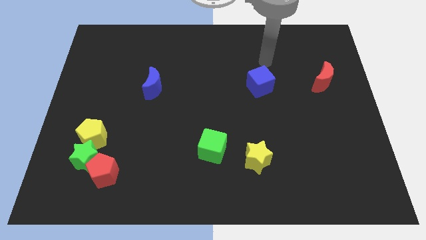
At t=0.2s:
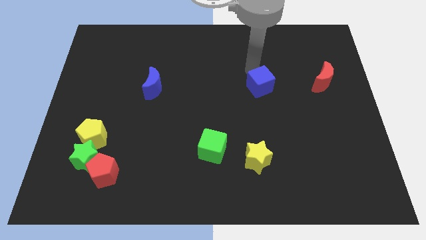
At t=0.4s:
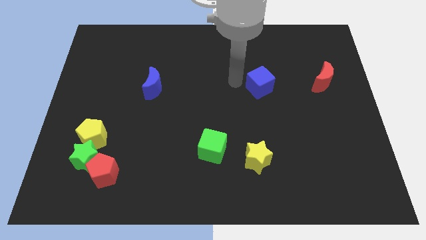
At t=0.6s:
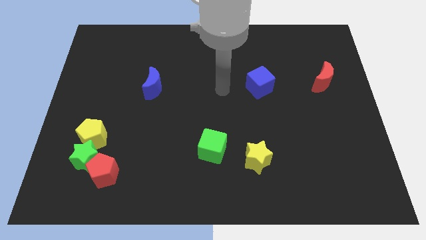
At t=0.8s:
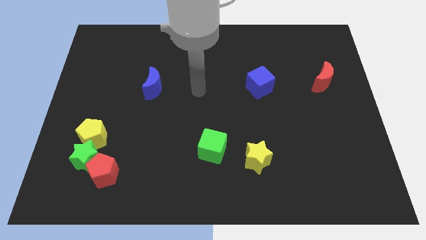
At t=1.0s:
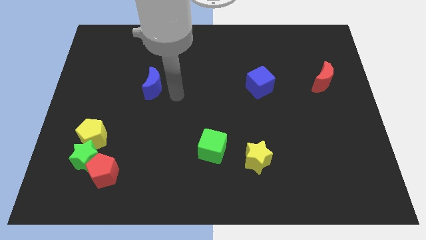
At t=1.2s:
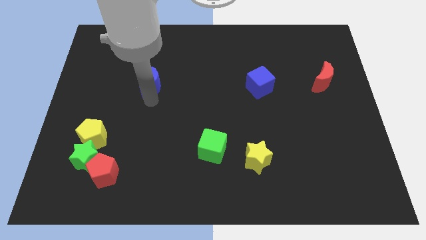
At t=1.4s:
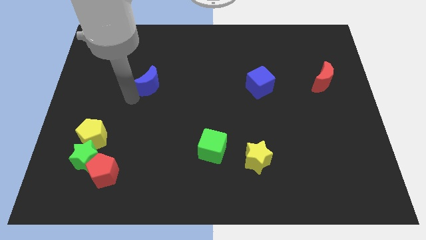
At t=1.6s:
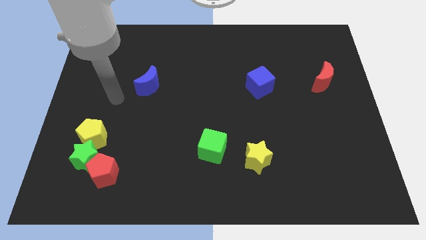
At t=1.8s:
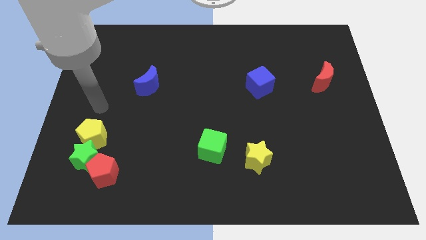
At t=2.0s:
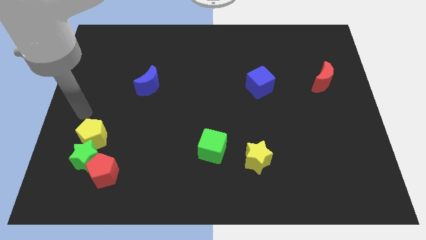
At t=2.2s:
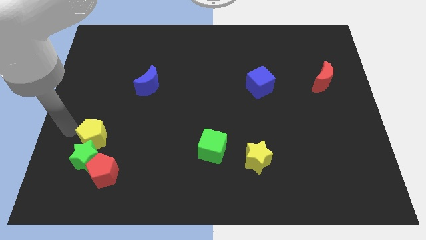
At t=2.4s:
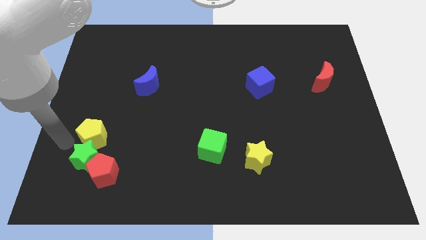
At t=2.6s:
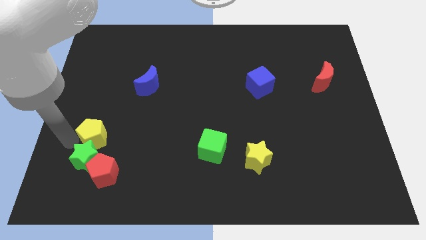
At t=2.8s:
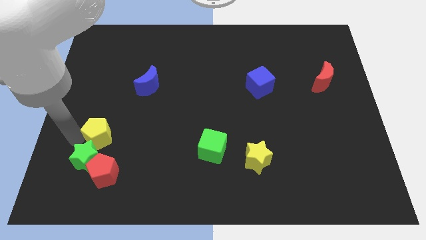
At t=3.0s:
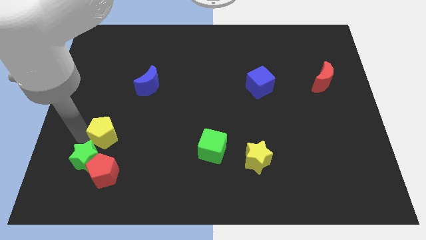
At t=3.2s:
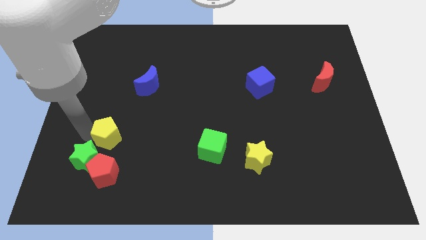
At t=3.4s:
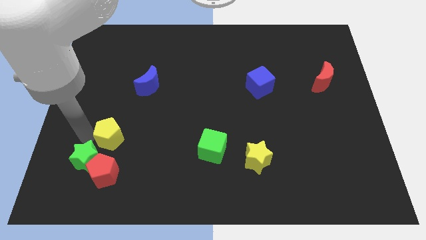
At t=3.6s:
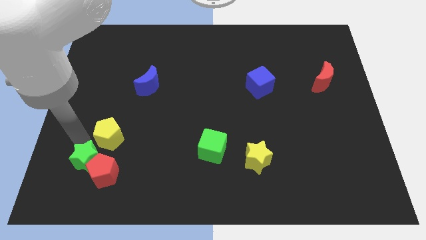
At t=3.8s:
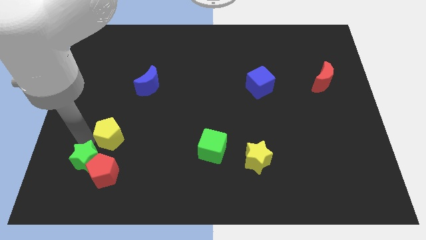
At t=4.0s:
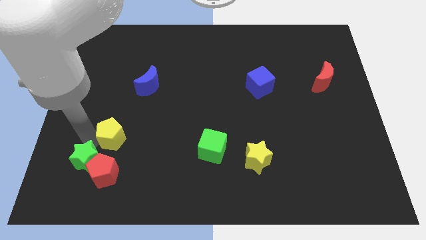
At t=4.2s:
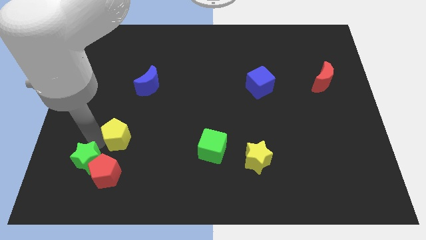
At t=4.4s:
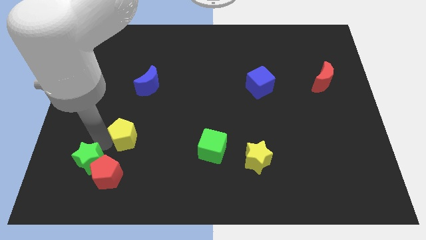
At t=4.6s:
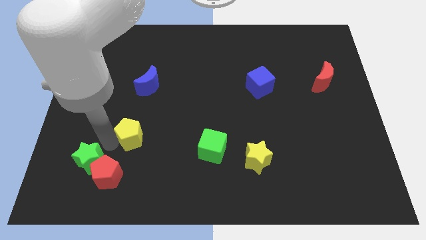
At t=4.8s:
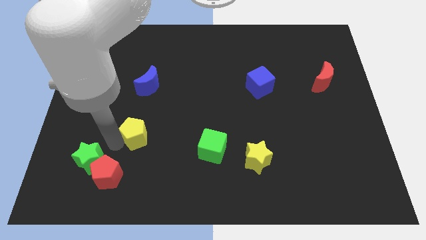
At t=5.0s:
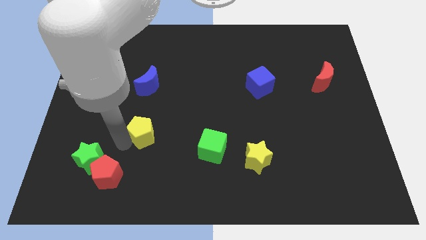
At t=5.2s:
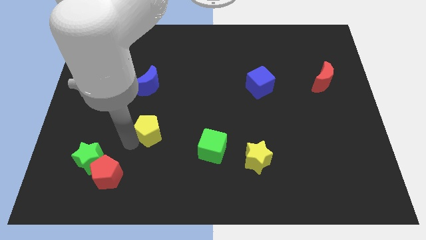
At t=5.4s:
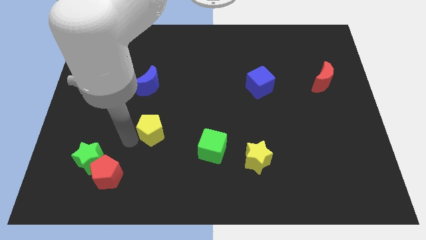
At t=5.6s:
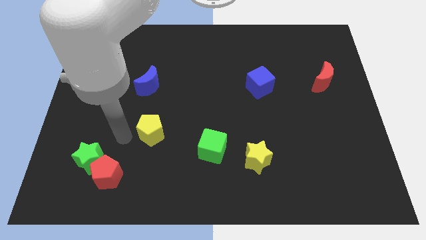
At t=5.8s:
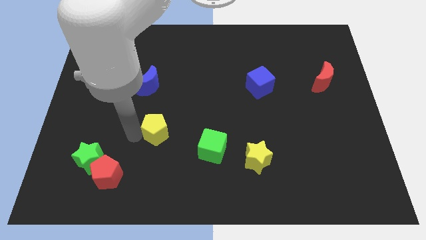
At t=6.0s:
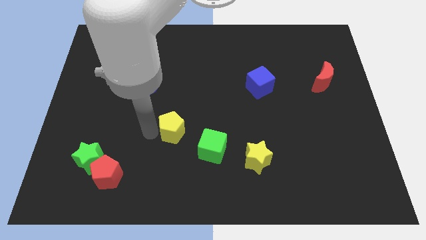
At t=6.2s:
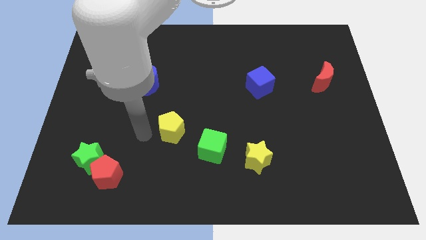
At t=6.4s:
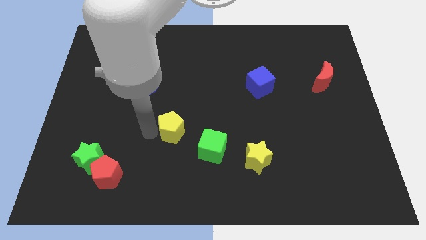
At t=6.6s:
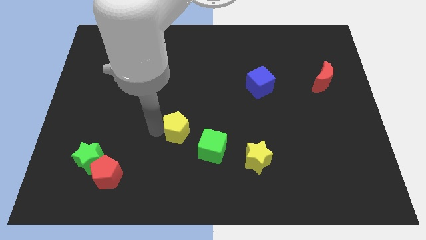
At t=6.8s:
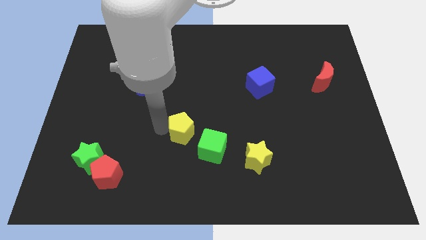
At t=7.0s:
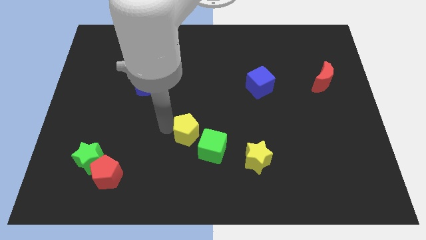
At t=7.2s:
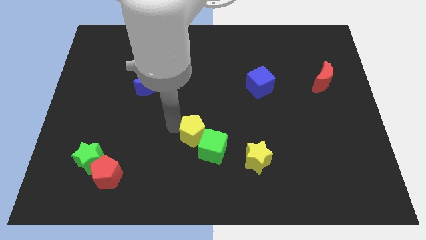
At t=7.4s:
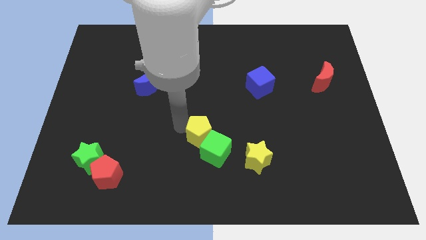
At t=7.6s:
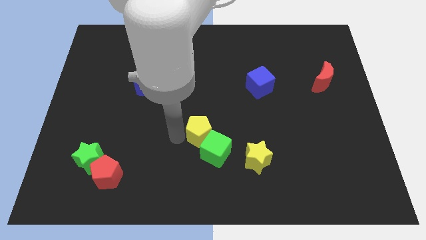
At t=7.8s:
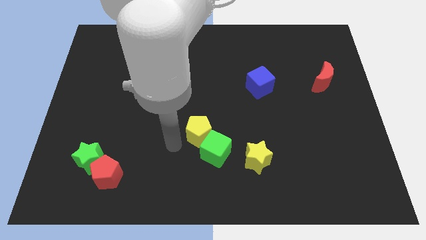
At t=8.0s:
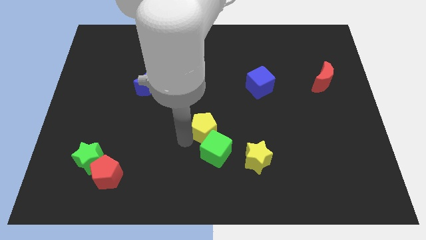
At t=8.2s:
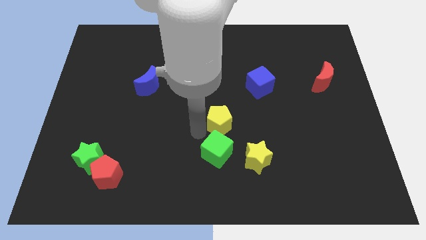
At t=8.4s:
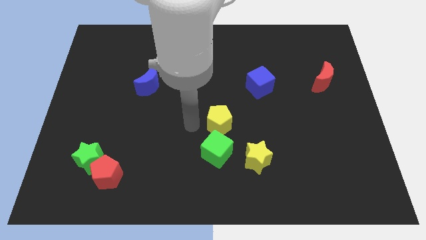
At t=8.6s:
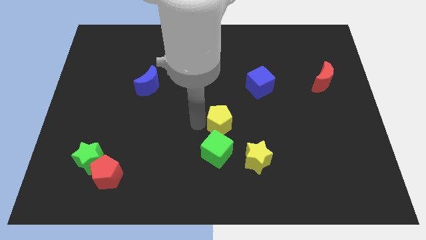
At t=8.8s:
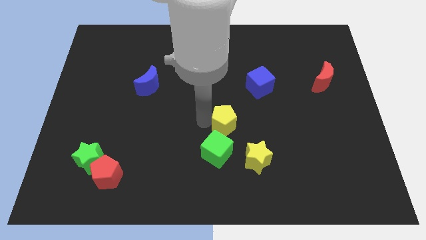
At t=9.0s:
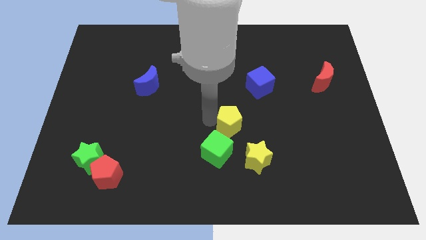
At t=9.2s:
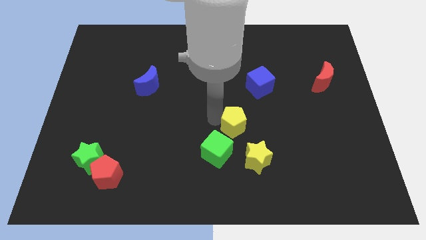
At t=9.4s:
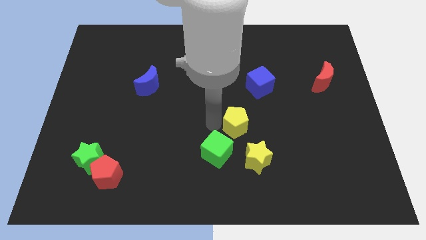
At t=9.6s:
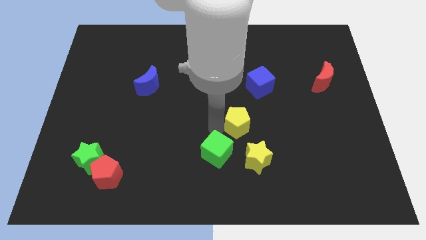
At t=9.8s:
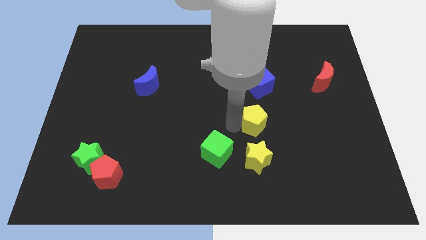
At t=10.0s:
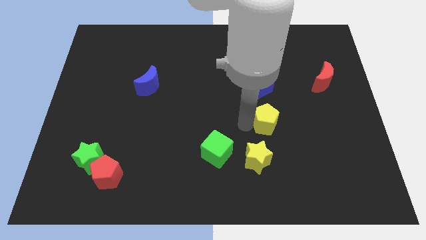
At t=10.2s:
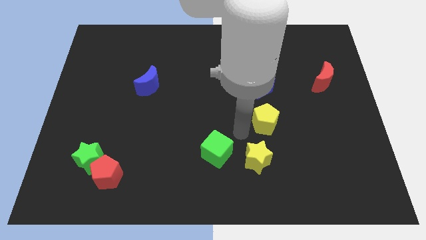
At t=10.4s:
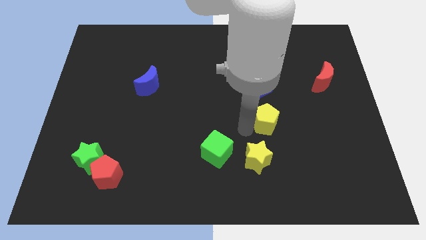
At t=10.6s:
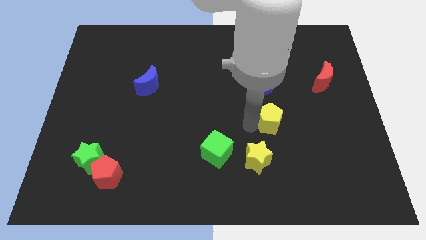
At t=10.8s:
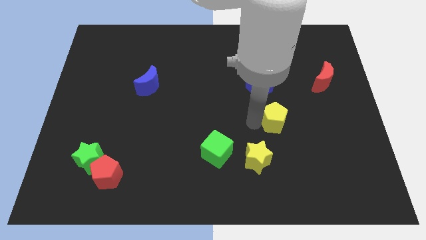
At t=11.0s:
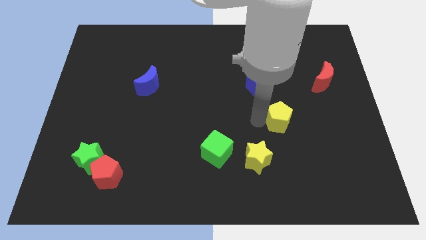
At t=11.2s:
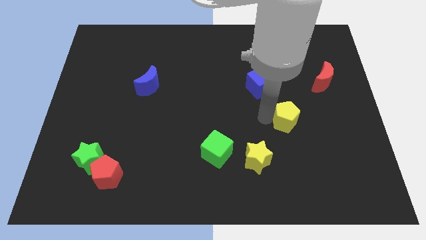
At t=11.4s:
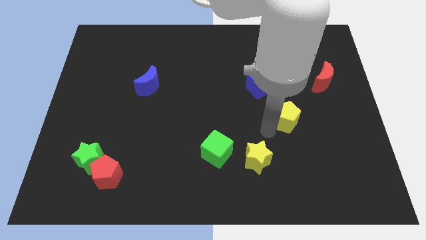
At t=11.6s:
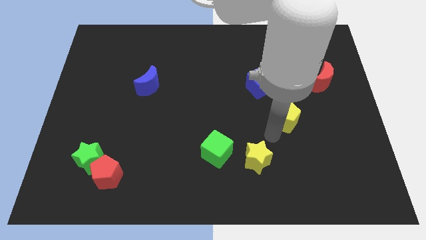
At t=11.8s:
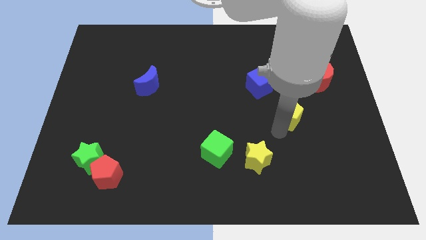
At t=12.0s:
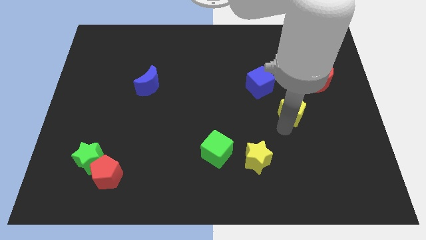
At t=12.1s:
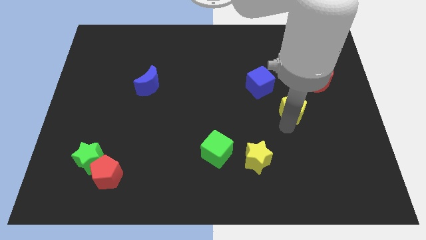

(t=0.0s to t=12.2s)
slide the yellow pentagon to the bottom left side of the red moon

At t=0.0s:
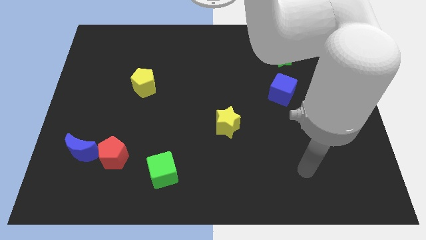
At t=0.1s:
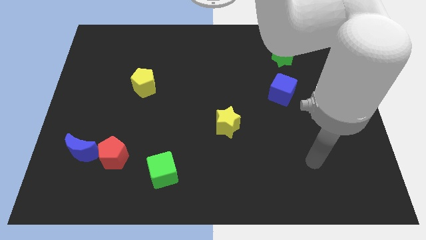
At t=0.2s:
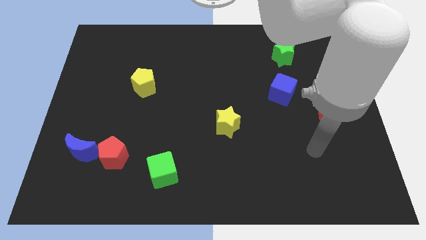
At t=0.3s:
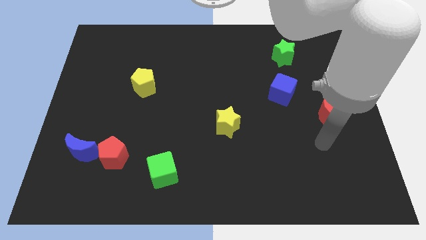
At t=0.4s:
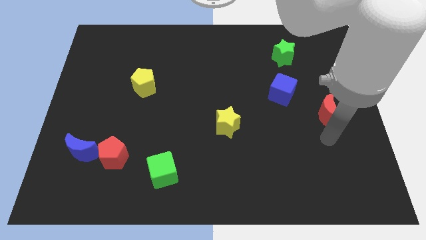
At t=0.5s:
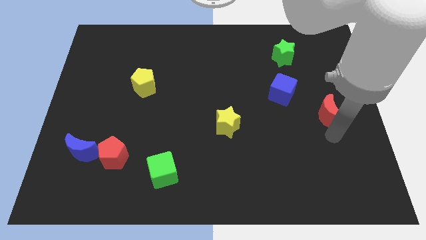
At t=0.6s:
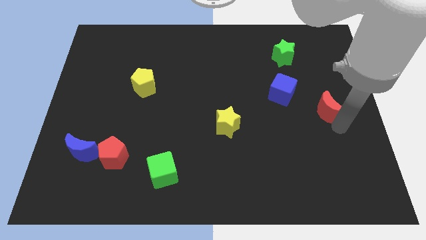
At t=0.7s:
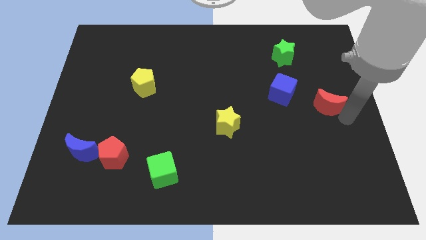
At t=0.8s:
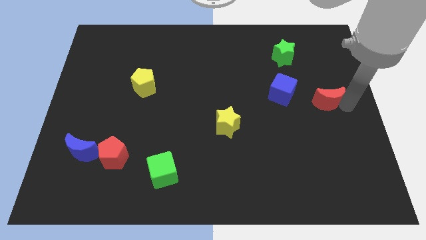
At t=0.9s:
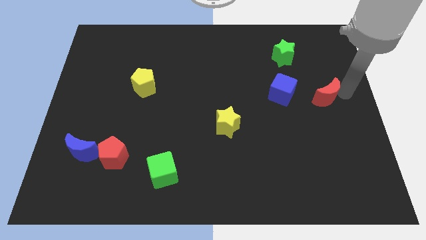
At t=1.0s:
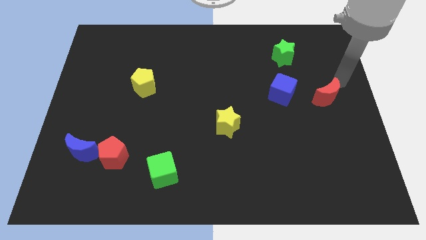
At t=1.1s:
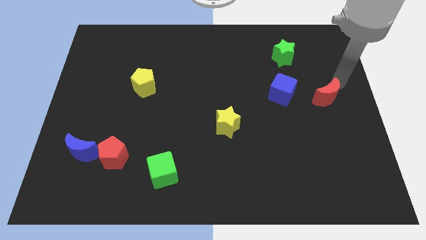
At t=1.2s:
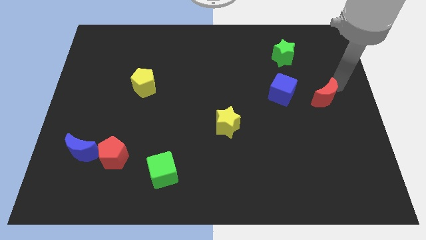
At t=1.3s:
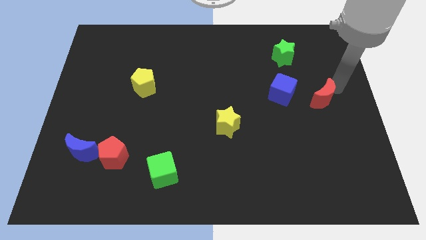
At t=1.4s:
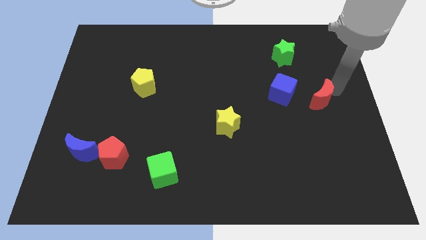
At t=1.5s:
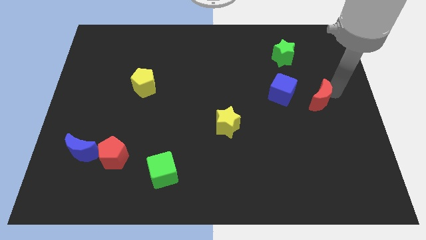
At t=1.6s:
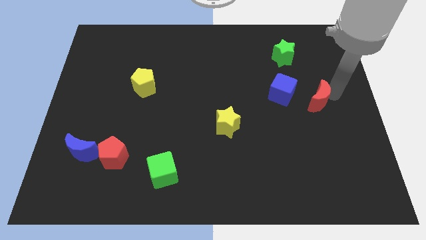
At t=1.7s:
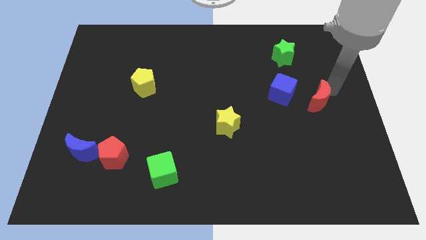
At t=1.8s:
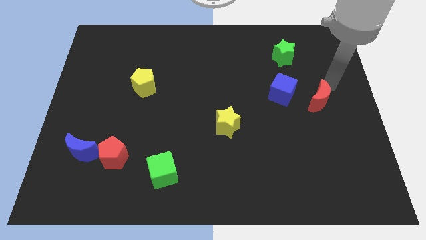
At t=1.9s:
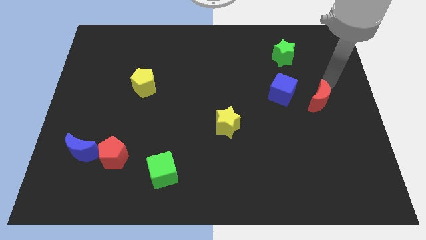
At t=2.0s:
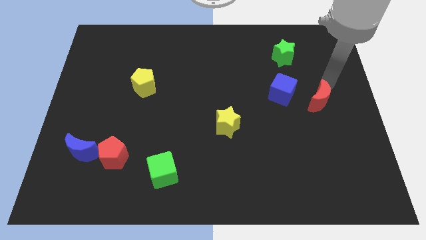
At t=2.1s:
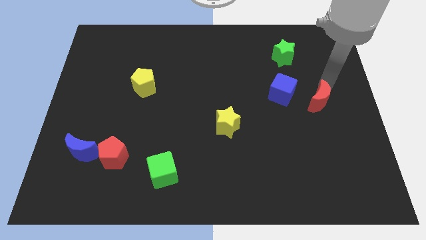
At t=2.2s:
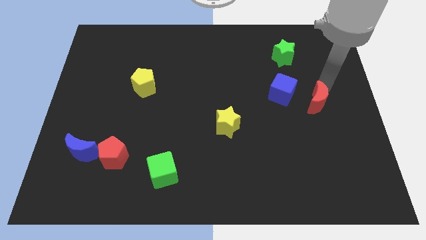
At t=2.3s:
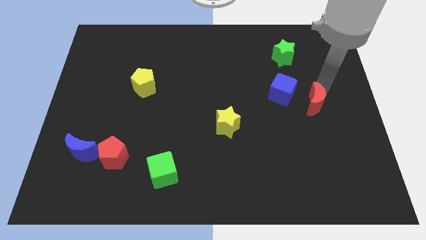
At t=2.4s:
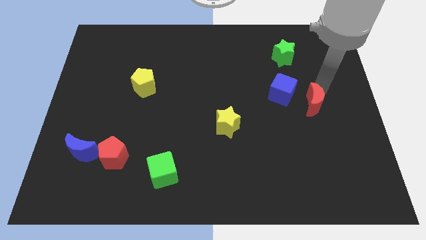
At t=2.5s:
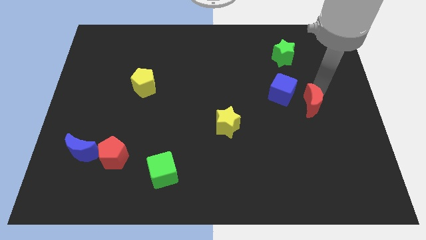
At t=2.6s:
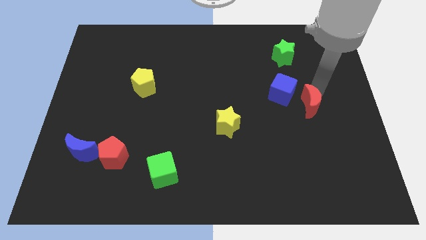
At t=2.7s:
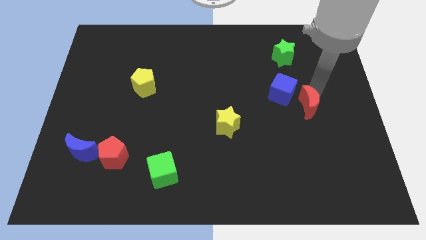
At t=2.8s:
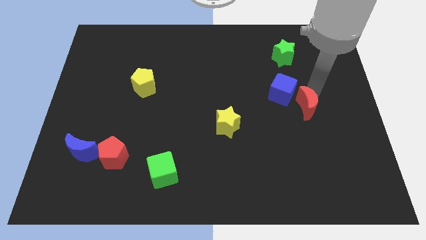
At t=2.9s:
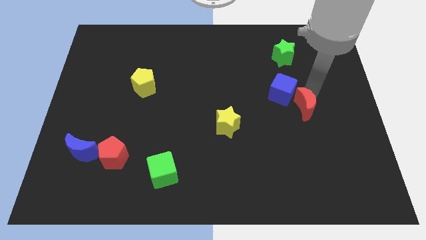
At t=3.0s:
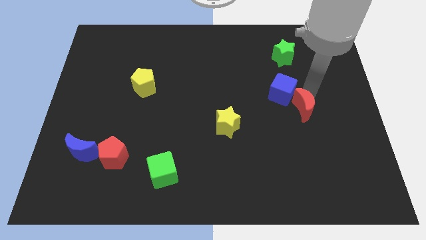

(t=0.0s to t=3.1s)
push the red moon below the blue cube
